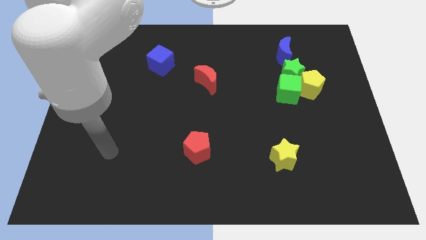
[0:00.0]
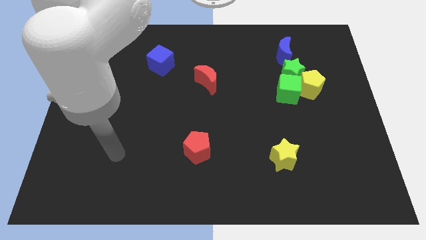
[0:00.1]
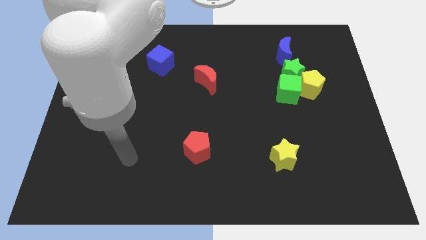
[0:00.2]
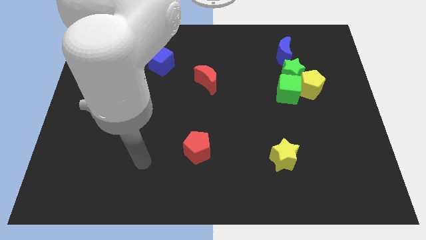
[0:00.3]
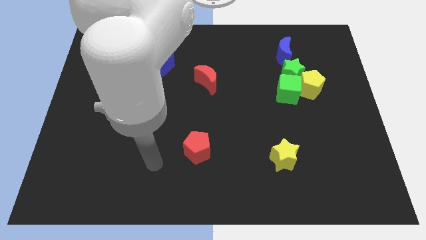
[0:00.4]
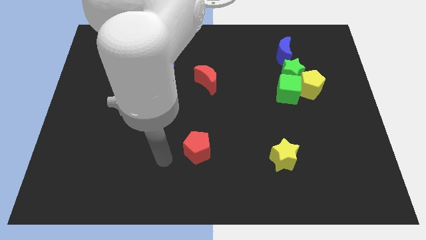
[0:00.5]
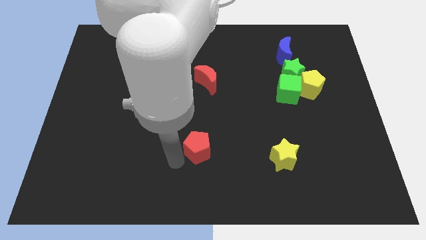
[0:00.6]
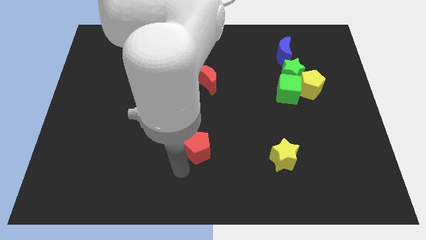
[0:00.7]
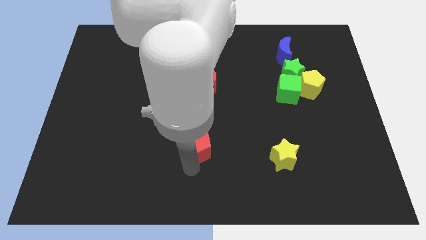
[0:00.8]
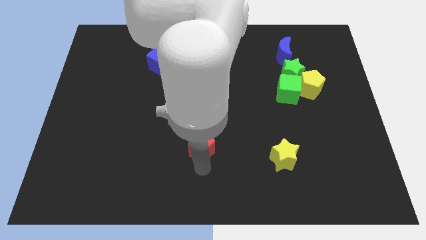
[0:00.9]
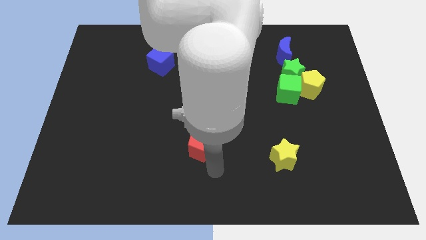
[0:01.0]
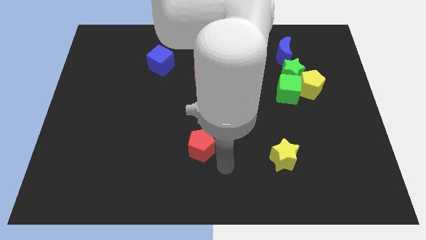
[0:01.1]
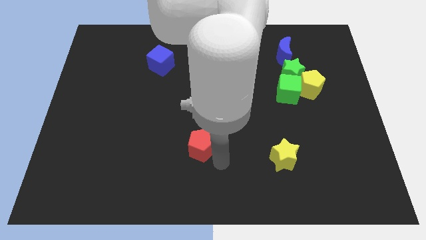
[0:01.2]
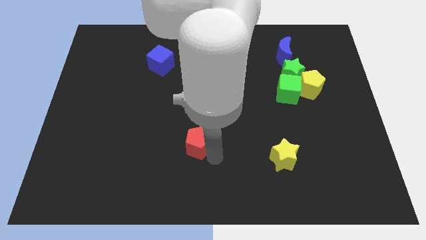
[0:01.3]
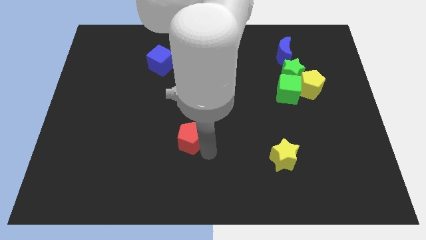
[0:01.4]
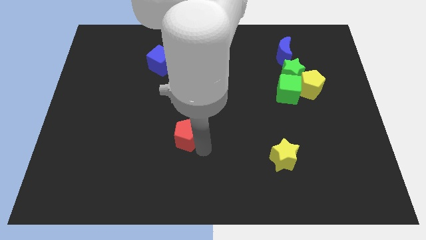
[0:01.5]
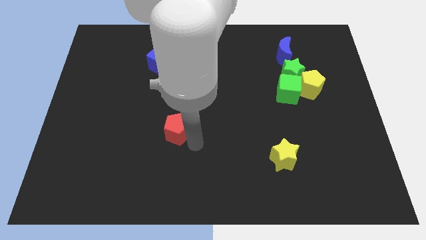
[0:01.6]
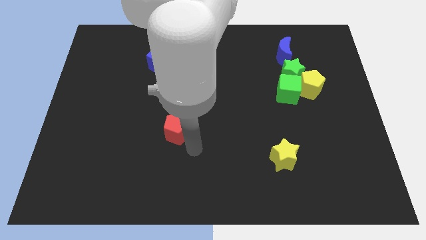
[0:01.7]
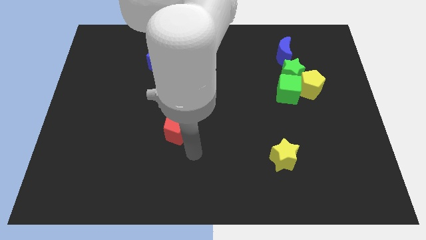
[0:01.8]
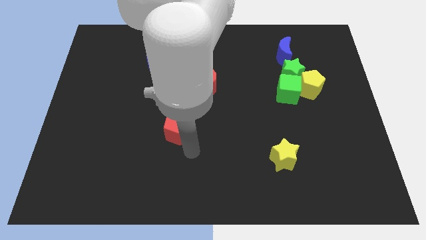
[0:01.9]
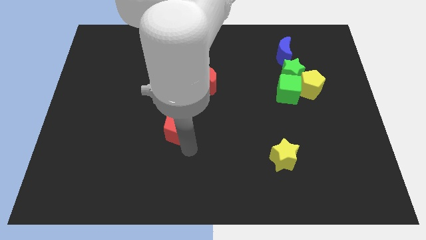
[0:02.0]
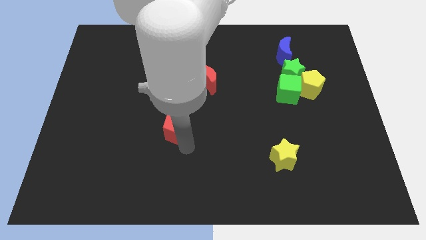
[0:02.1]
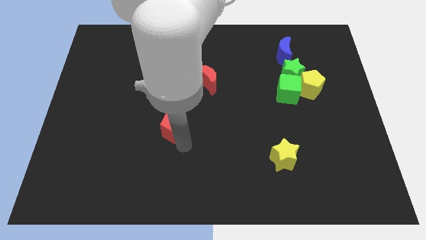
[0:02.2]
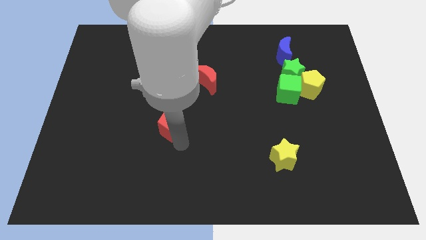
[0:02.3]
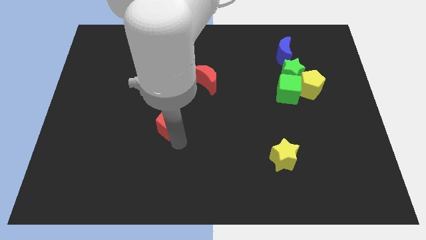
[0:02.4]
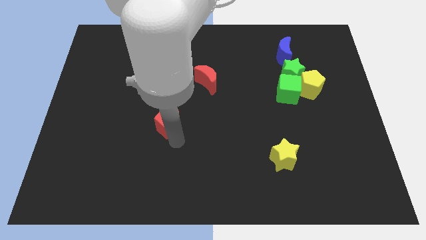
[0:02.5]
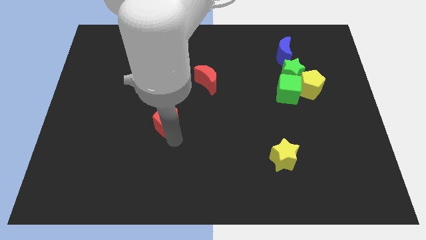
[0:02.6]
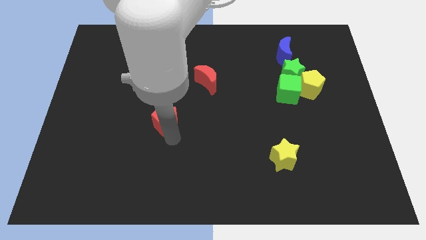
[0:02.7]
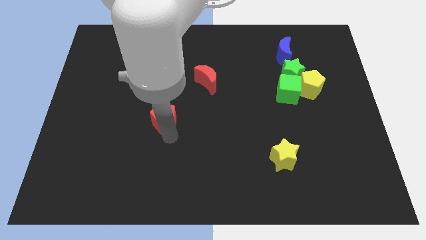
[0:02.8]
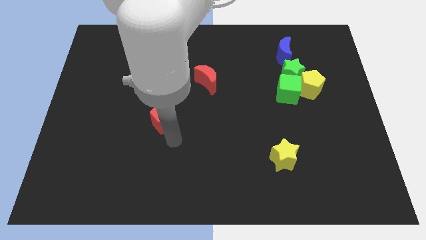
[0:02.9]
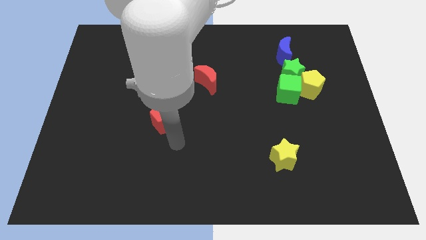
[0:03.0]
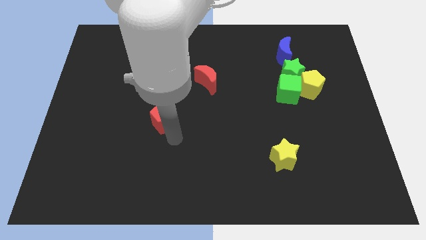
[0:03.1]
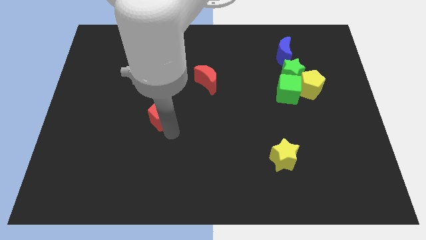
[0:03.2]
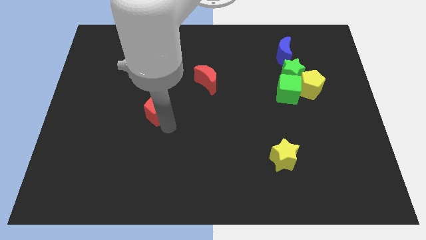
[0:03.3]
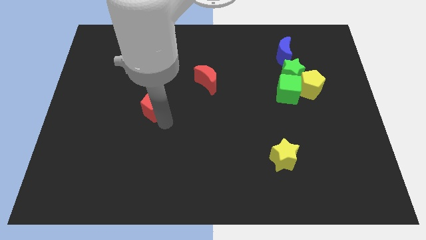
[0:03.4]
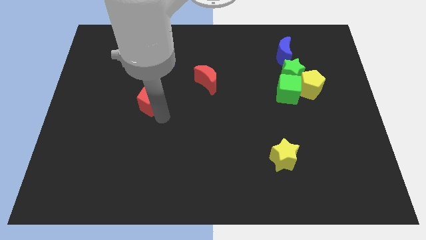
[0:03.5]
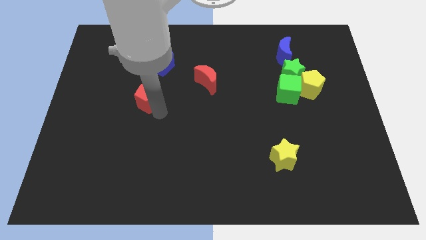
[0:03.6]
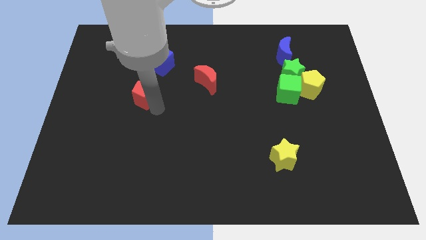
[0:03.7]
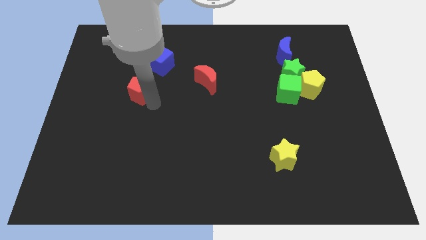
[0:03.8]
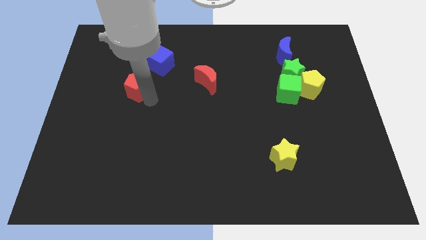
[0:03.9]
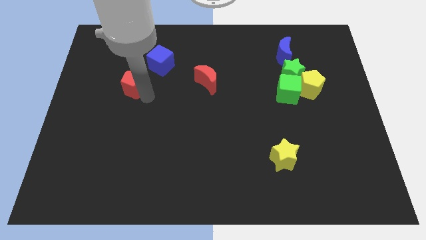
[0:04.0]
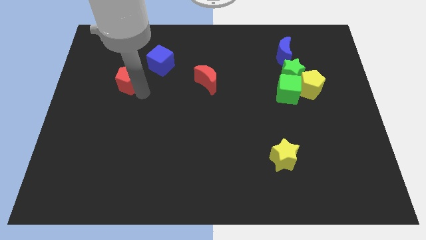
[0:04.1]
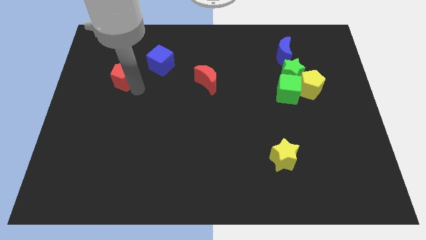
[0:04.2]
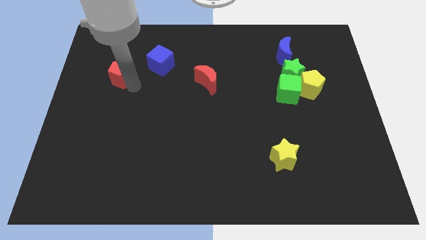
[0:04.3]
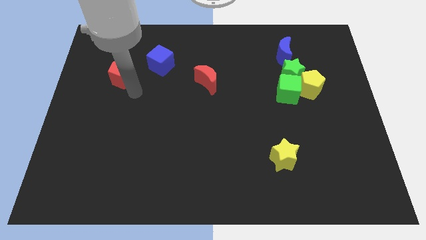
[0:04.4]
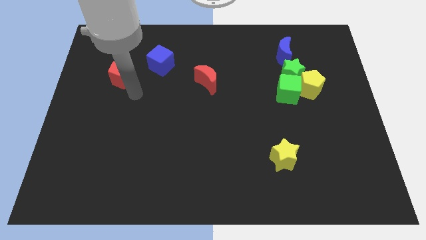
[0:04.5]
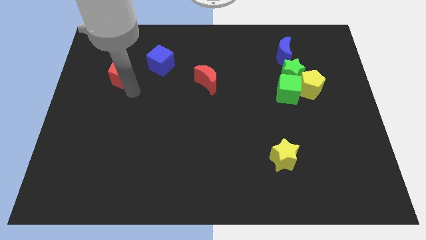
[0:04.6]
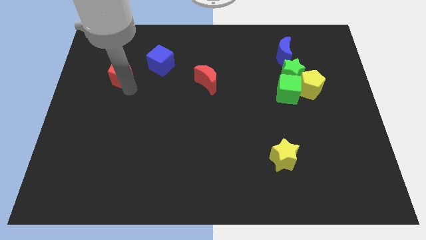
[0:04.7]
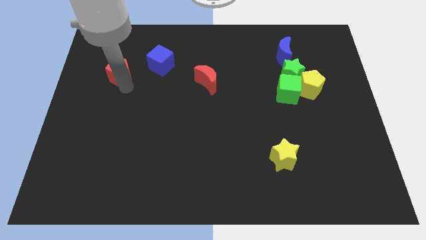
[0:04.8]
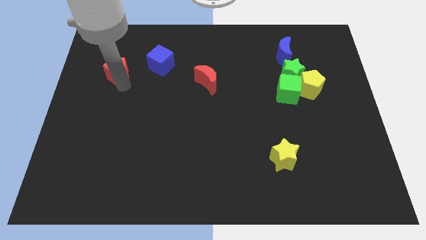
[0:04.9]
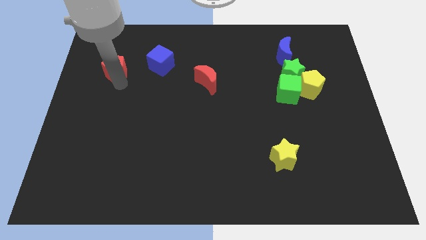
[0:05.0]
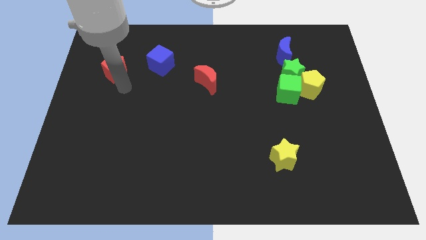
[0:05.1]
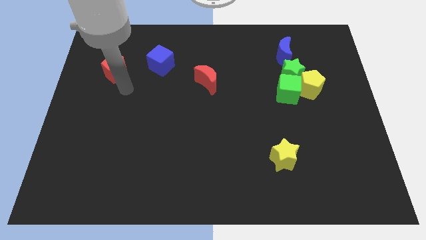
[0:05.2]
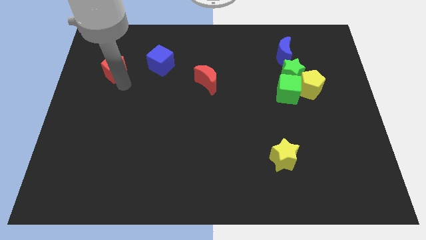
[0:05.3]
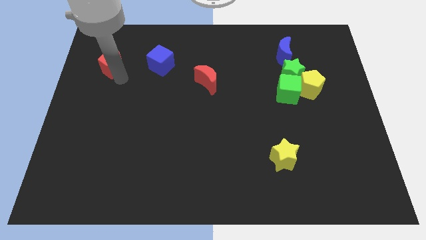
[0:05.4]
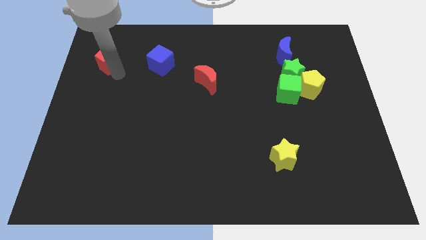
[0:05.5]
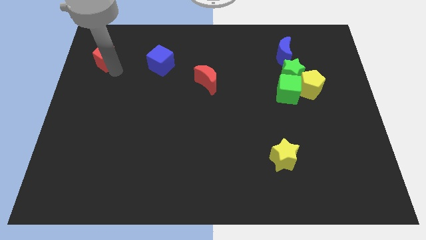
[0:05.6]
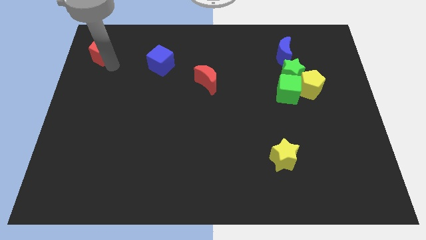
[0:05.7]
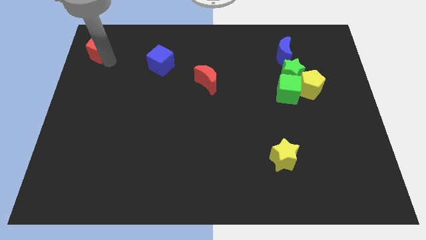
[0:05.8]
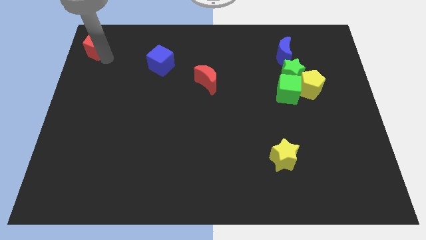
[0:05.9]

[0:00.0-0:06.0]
put the red pentagon to the top left corner
